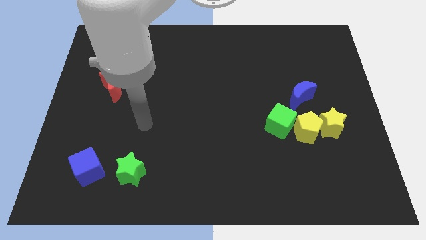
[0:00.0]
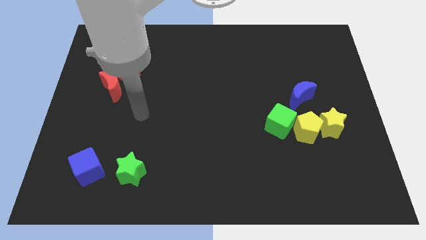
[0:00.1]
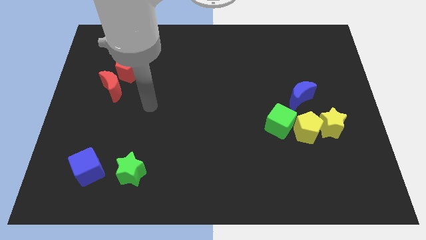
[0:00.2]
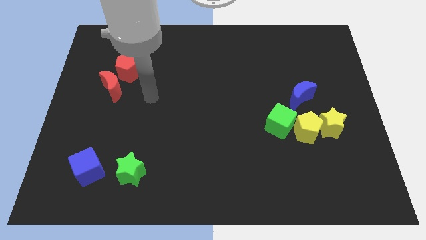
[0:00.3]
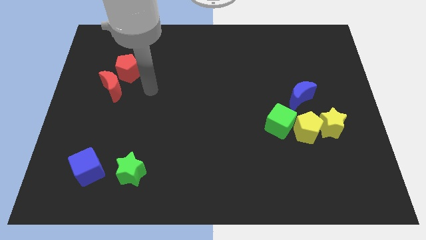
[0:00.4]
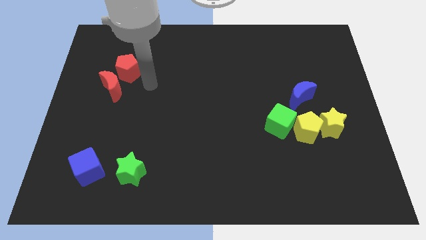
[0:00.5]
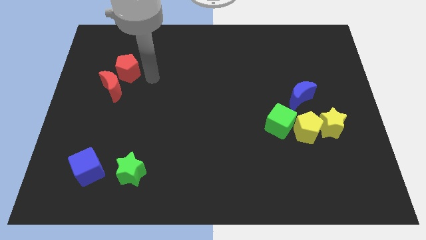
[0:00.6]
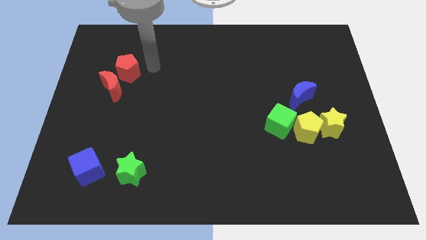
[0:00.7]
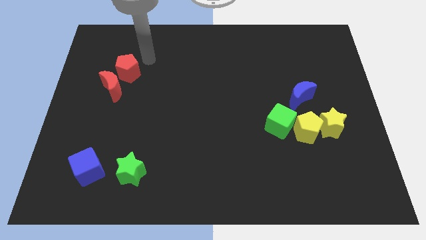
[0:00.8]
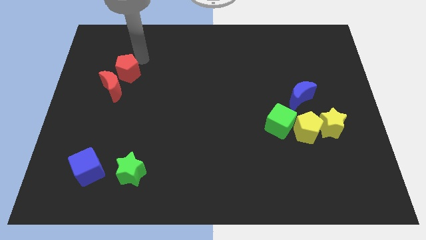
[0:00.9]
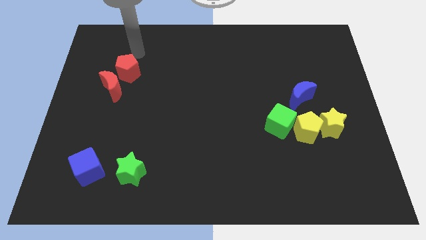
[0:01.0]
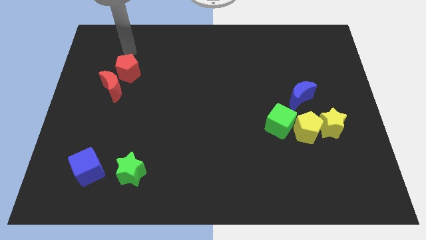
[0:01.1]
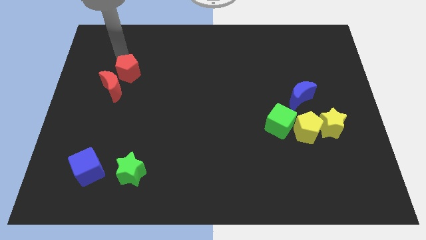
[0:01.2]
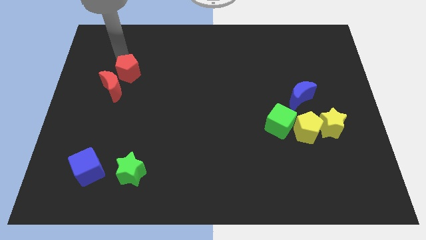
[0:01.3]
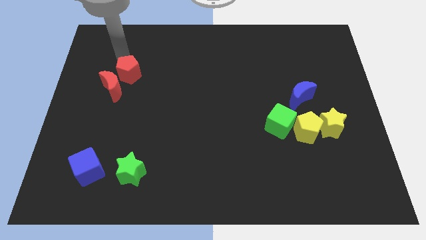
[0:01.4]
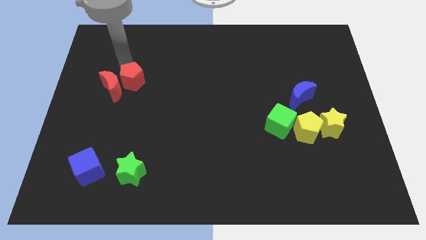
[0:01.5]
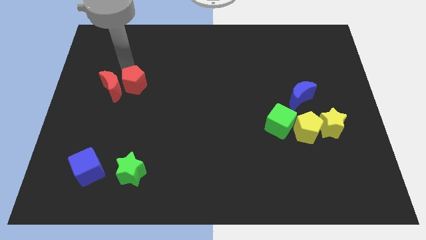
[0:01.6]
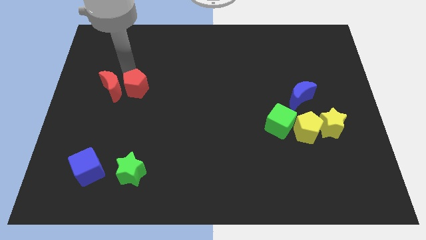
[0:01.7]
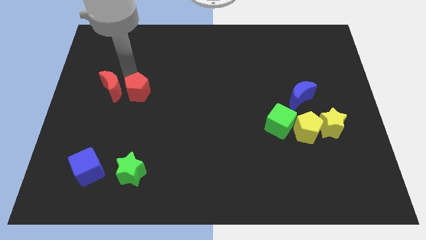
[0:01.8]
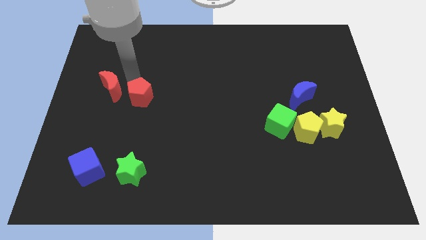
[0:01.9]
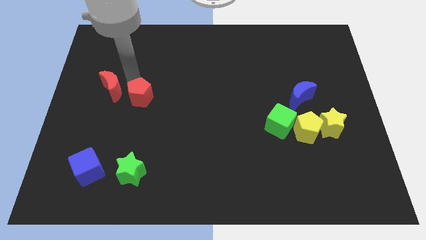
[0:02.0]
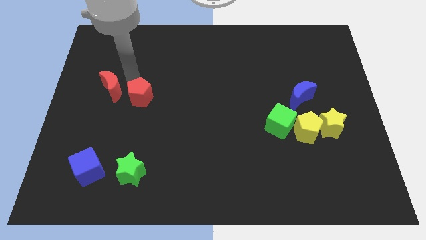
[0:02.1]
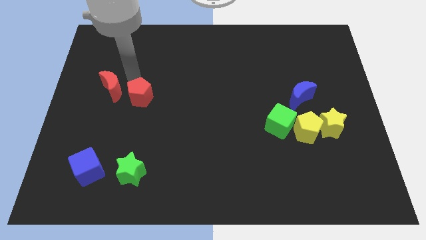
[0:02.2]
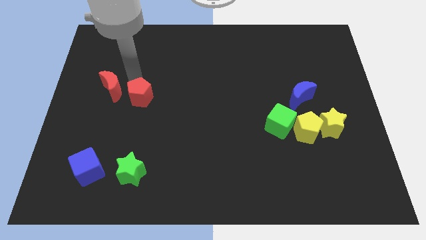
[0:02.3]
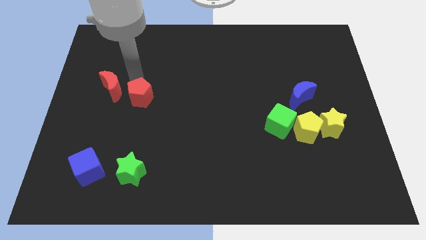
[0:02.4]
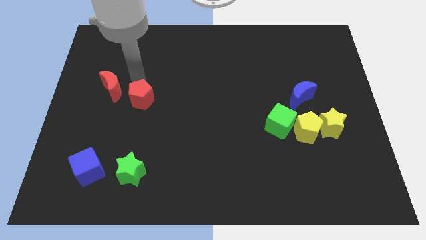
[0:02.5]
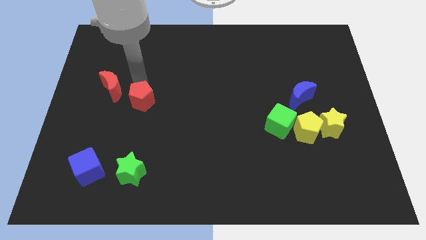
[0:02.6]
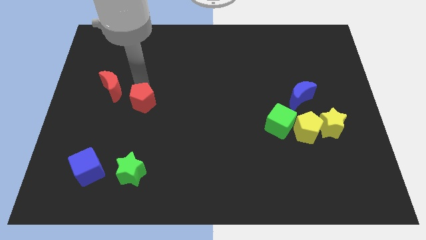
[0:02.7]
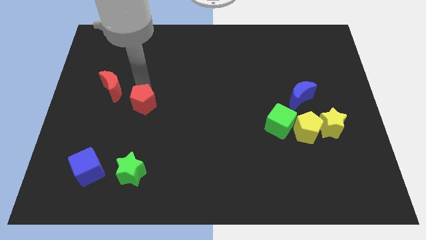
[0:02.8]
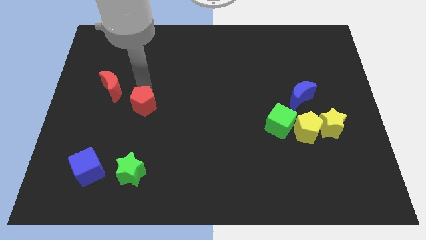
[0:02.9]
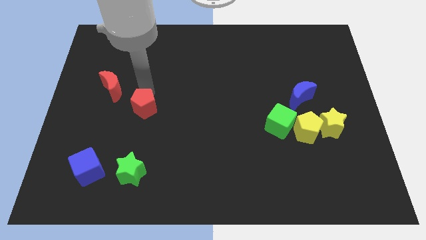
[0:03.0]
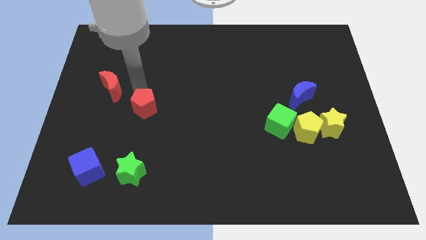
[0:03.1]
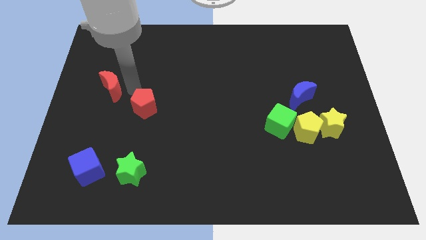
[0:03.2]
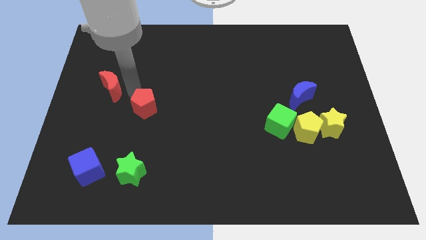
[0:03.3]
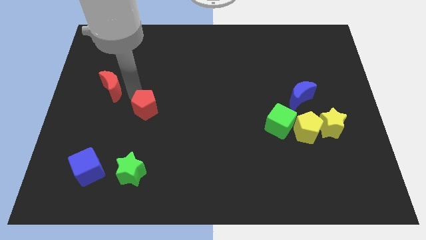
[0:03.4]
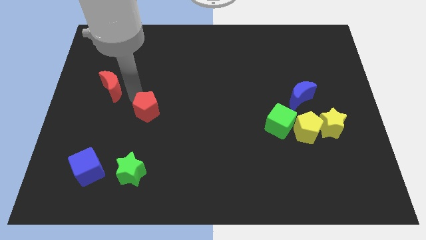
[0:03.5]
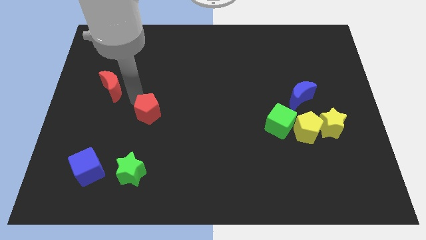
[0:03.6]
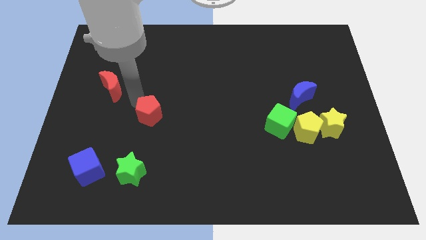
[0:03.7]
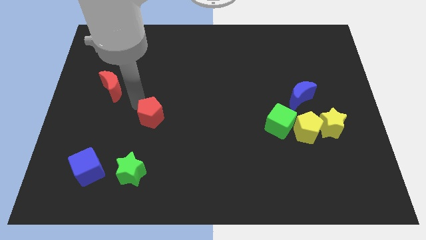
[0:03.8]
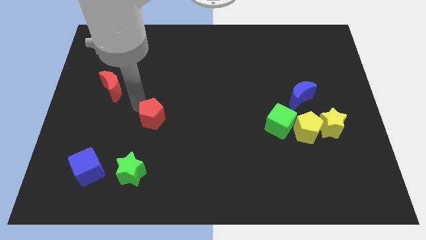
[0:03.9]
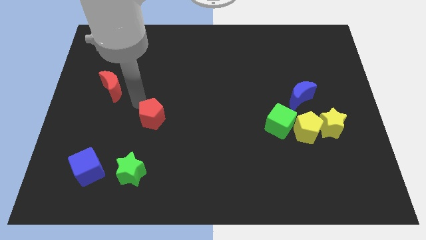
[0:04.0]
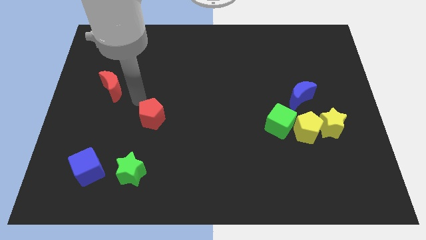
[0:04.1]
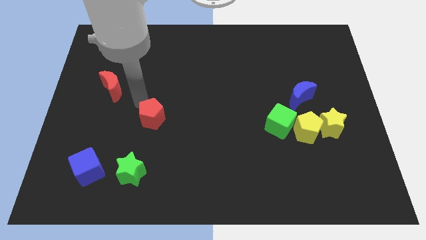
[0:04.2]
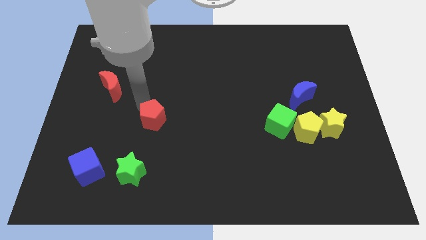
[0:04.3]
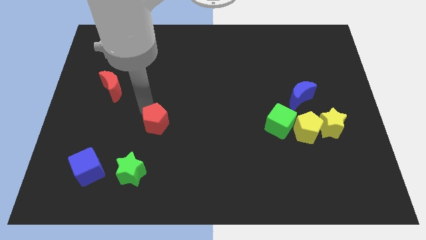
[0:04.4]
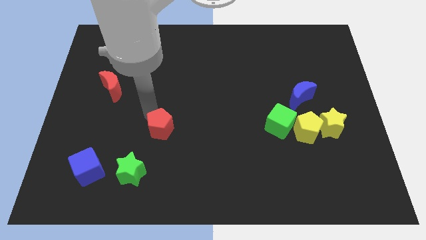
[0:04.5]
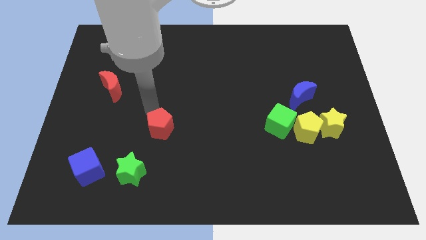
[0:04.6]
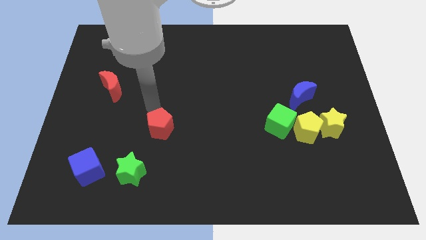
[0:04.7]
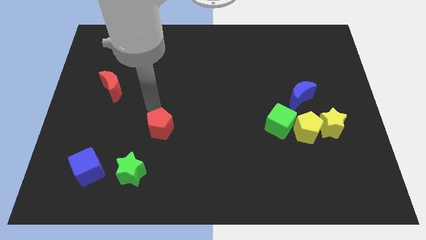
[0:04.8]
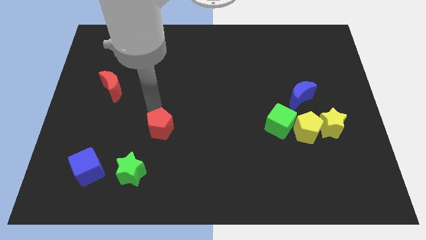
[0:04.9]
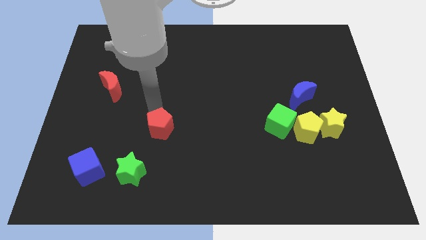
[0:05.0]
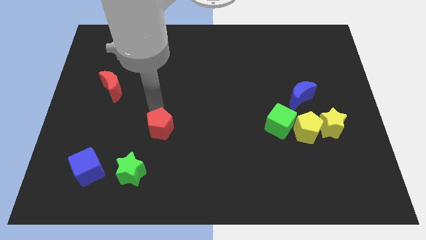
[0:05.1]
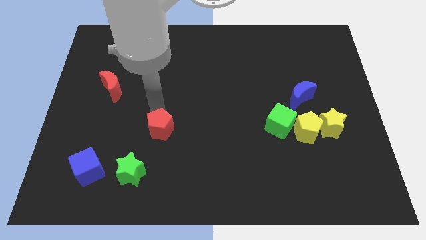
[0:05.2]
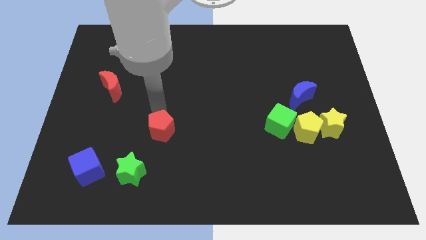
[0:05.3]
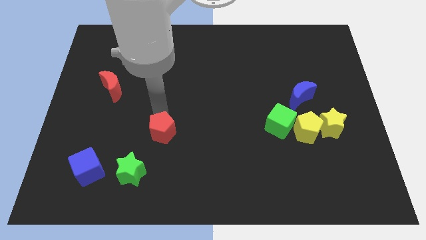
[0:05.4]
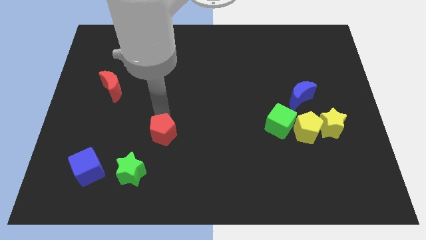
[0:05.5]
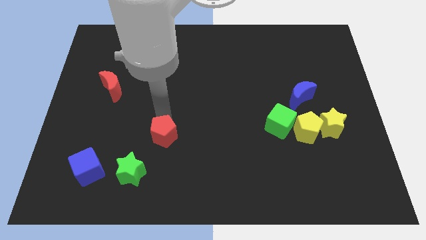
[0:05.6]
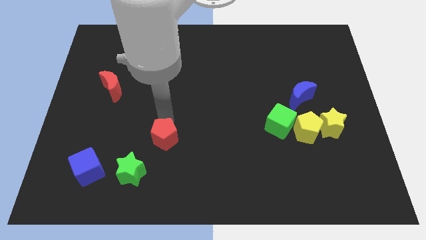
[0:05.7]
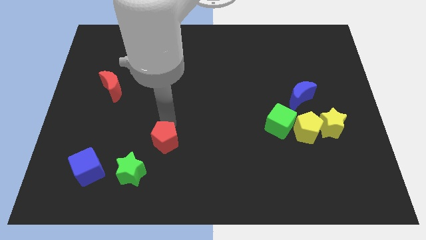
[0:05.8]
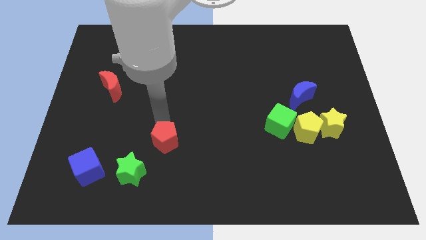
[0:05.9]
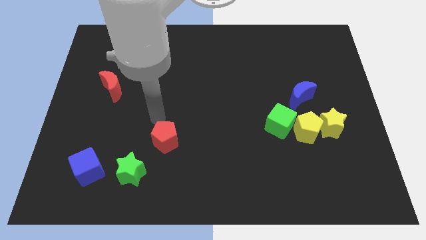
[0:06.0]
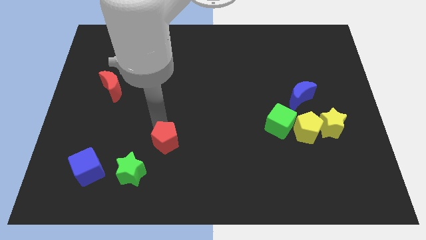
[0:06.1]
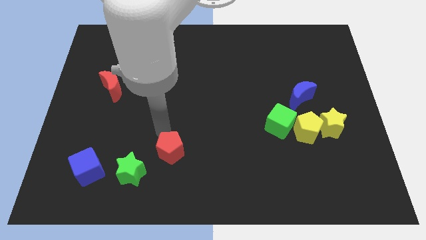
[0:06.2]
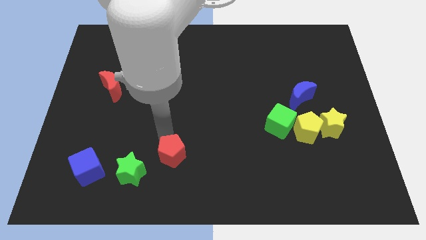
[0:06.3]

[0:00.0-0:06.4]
move the red pentagon to the right side of the green star
